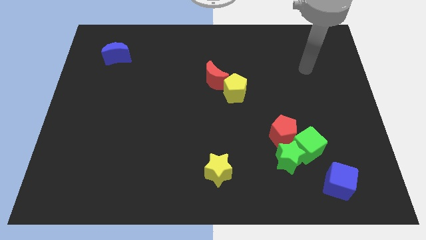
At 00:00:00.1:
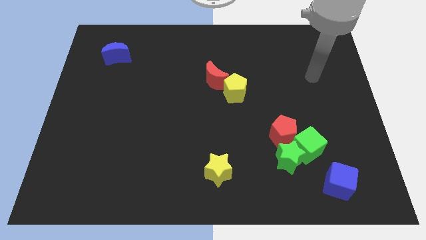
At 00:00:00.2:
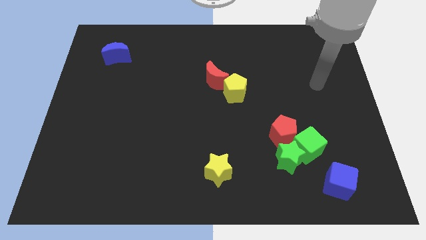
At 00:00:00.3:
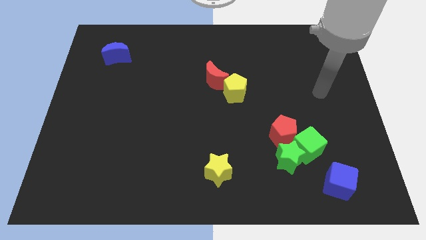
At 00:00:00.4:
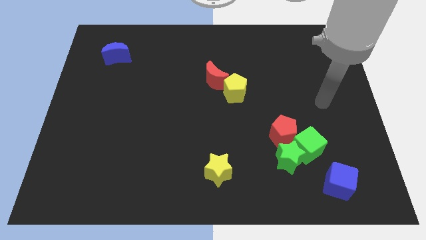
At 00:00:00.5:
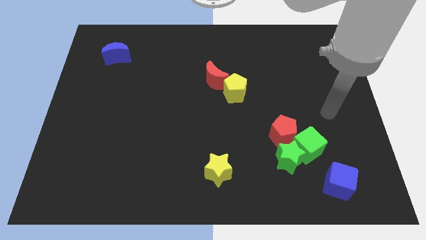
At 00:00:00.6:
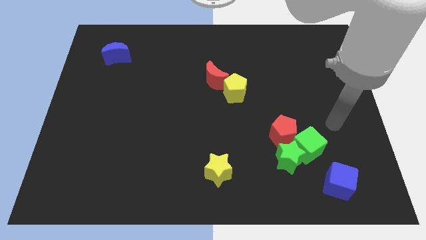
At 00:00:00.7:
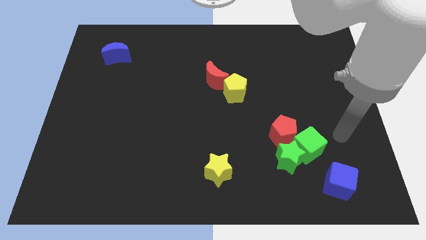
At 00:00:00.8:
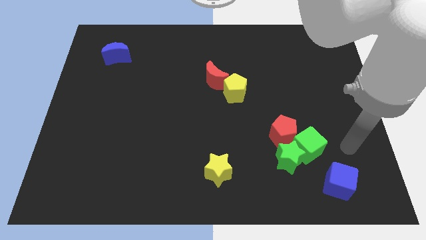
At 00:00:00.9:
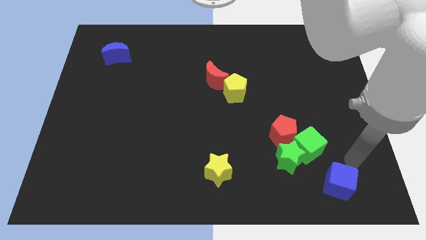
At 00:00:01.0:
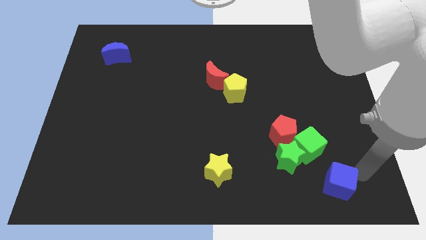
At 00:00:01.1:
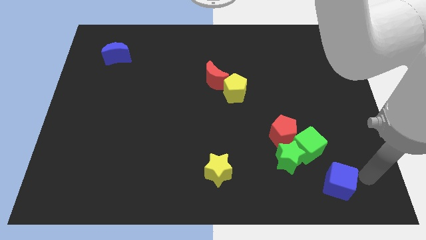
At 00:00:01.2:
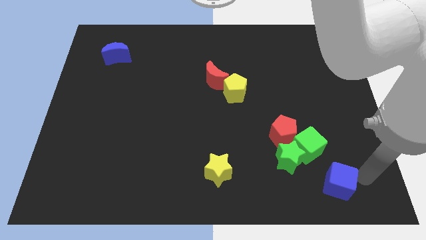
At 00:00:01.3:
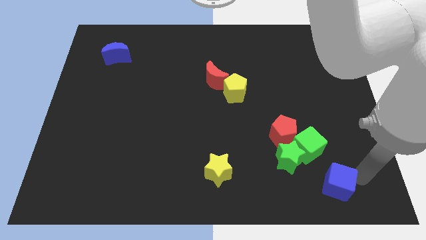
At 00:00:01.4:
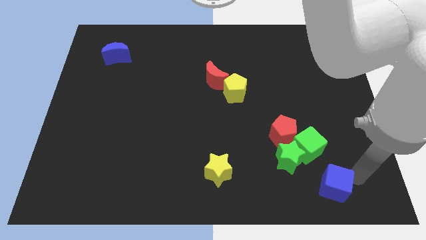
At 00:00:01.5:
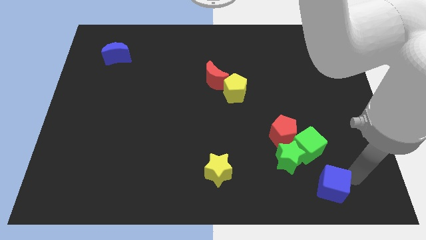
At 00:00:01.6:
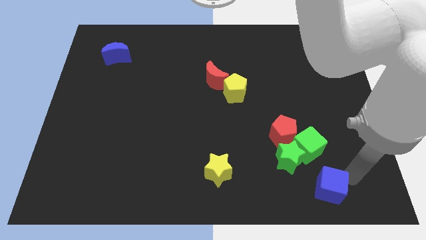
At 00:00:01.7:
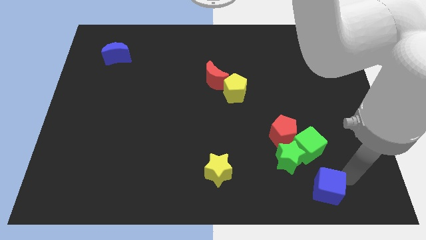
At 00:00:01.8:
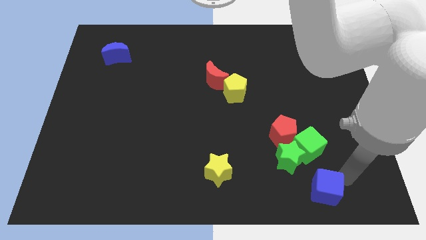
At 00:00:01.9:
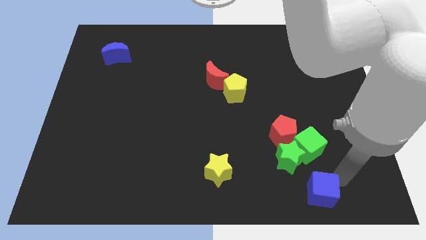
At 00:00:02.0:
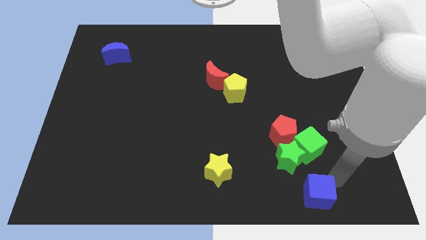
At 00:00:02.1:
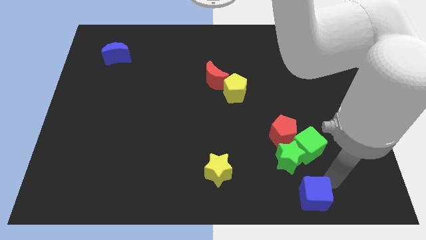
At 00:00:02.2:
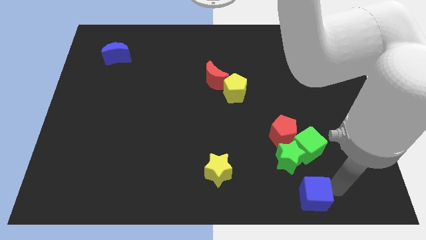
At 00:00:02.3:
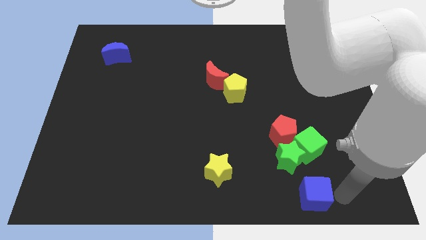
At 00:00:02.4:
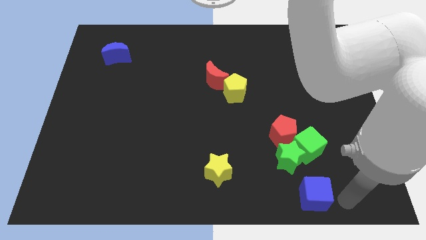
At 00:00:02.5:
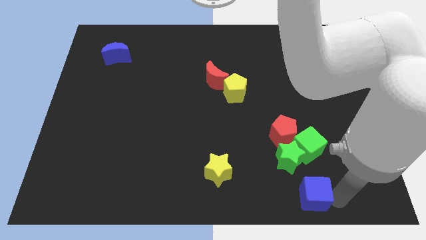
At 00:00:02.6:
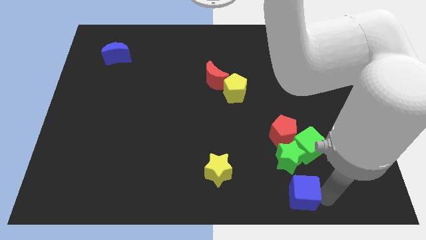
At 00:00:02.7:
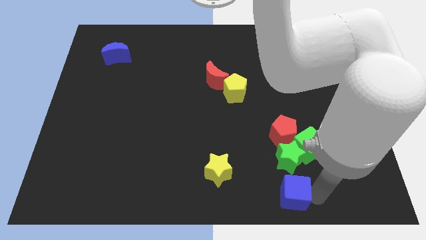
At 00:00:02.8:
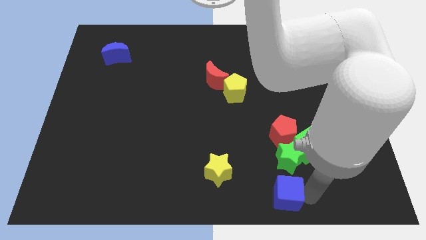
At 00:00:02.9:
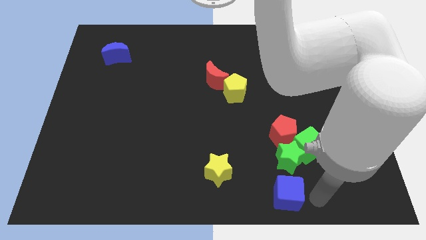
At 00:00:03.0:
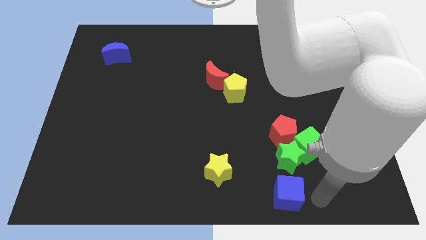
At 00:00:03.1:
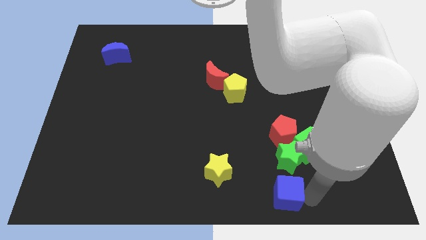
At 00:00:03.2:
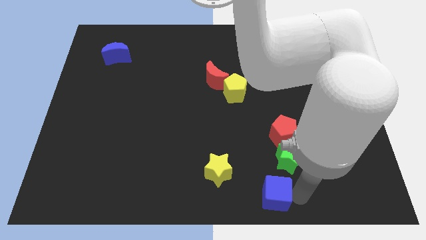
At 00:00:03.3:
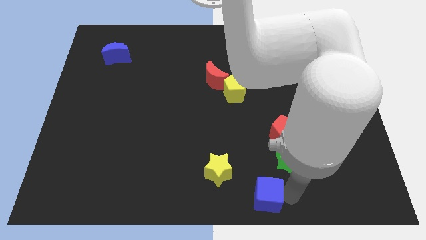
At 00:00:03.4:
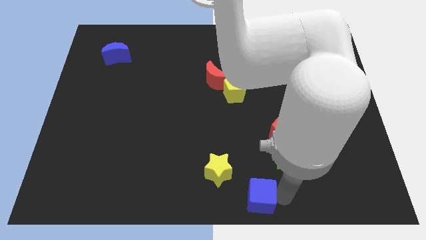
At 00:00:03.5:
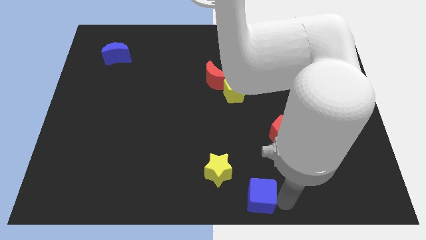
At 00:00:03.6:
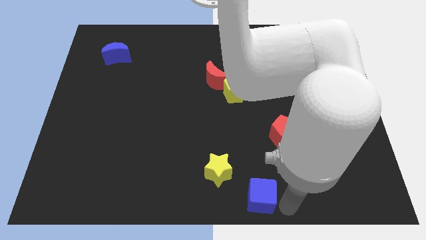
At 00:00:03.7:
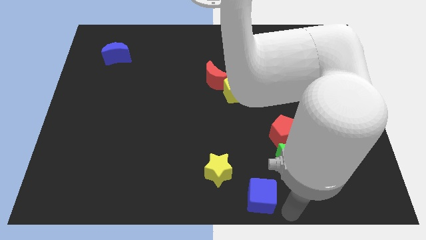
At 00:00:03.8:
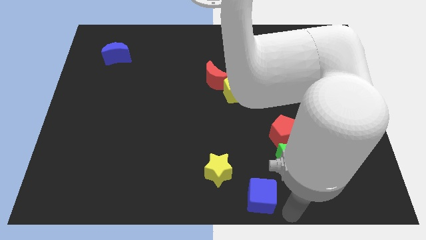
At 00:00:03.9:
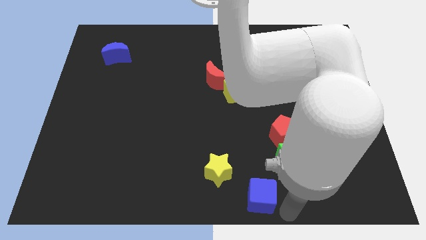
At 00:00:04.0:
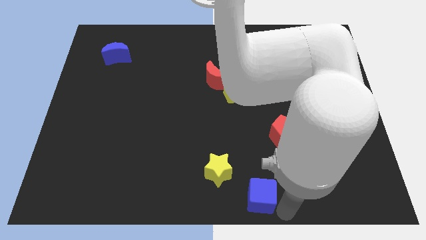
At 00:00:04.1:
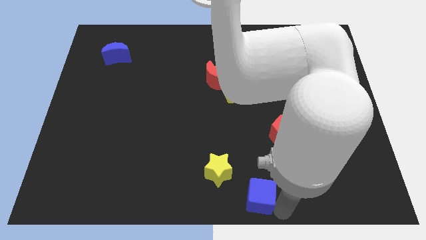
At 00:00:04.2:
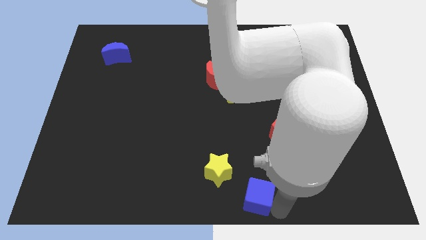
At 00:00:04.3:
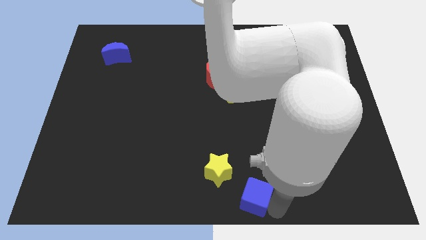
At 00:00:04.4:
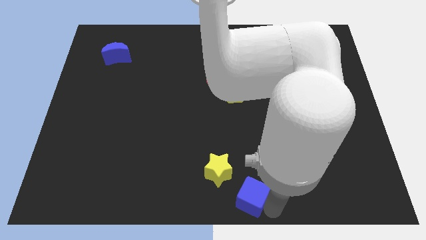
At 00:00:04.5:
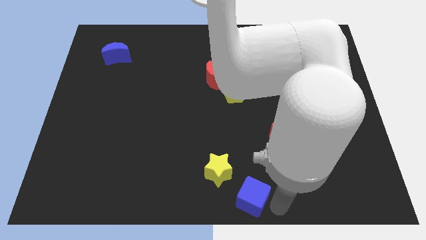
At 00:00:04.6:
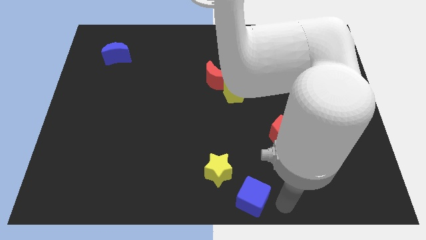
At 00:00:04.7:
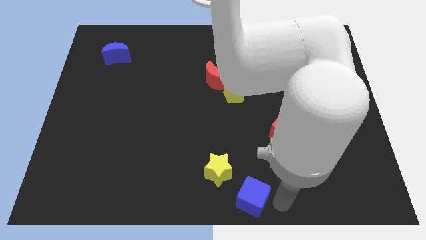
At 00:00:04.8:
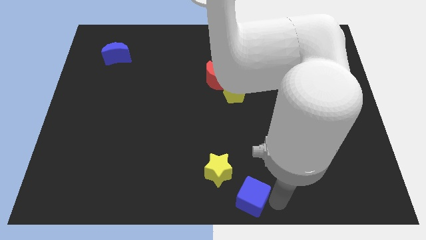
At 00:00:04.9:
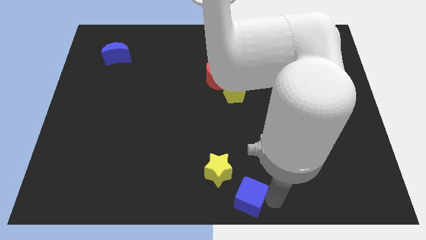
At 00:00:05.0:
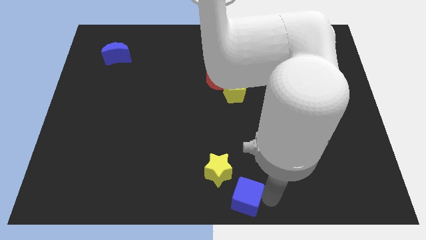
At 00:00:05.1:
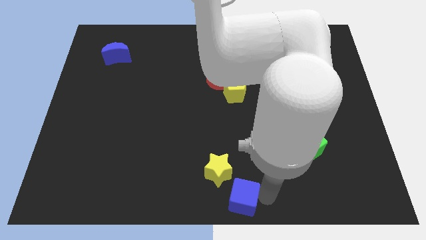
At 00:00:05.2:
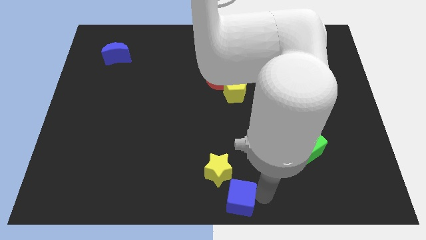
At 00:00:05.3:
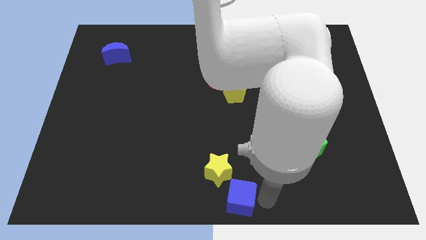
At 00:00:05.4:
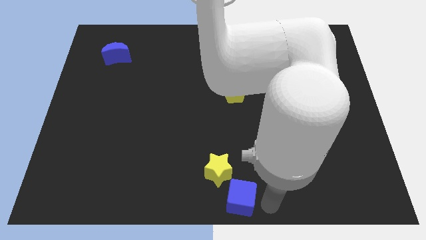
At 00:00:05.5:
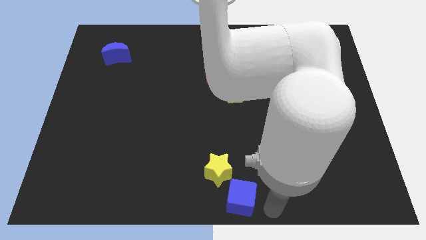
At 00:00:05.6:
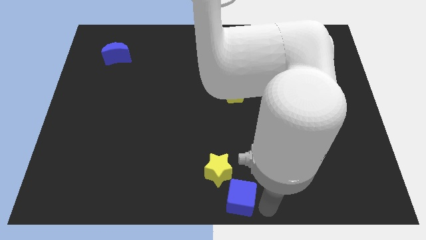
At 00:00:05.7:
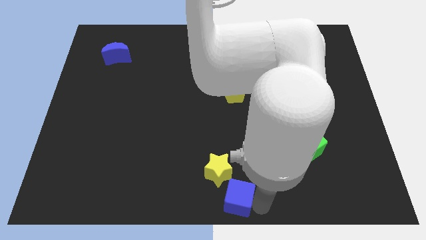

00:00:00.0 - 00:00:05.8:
move the blue cube left

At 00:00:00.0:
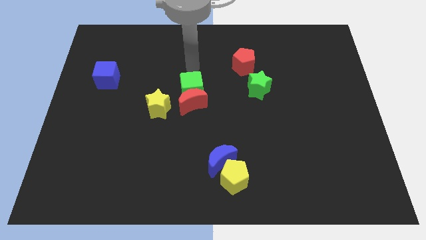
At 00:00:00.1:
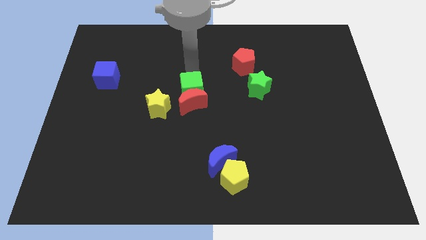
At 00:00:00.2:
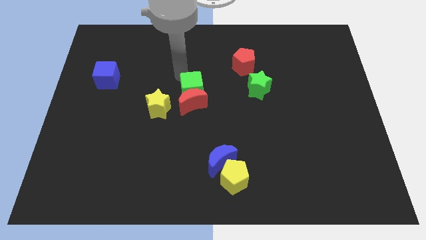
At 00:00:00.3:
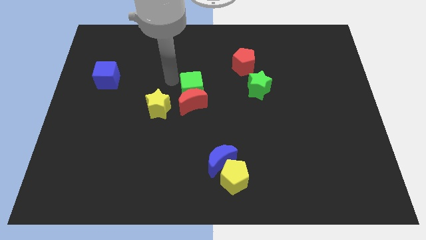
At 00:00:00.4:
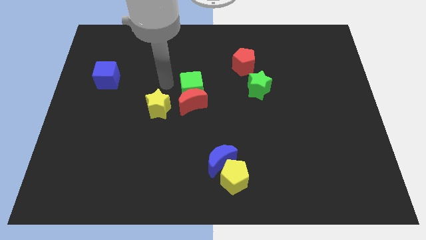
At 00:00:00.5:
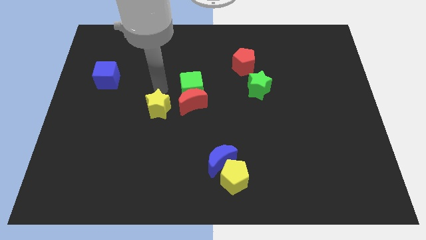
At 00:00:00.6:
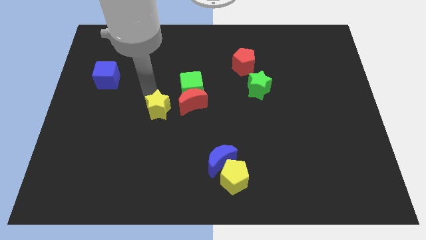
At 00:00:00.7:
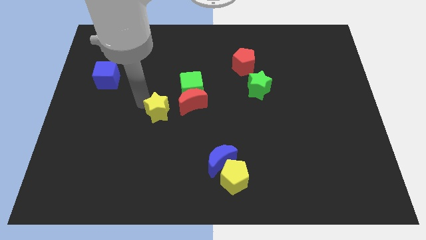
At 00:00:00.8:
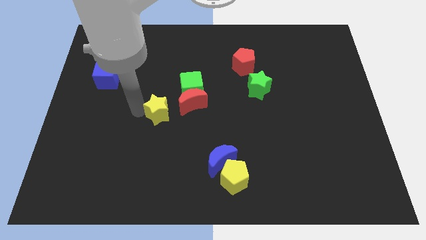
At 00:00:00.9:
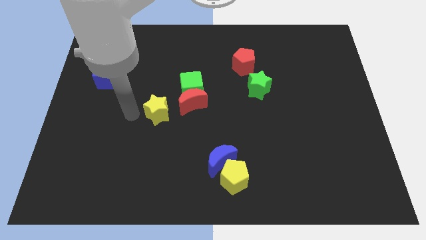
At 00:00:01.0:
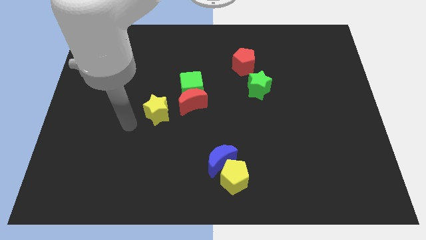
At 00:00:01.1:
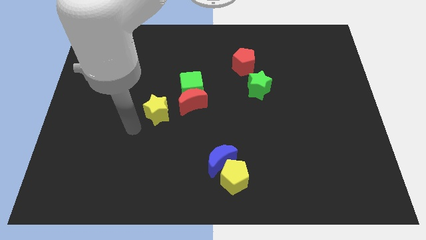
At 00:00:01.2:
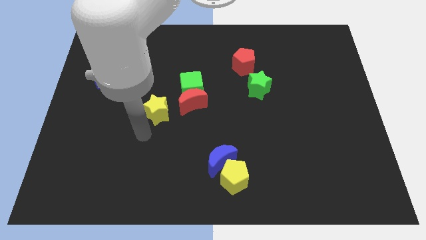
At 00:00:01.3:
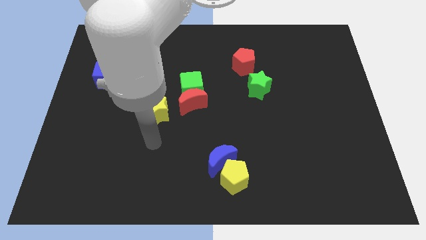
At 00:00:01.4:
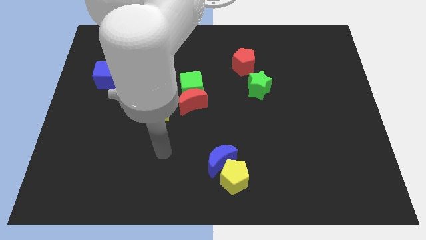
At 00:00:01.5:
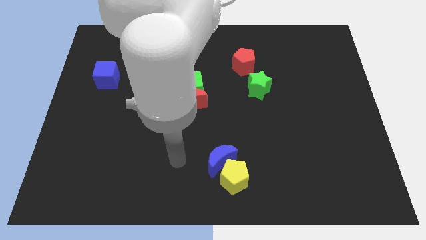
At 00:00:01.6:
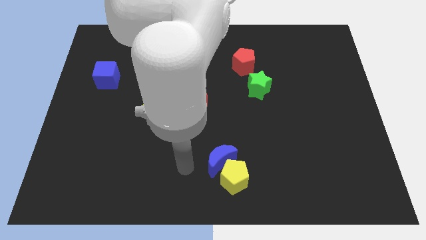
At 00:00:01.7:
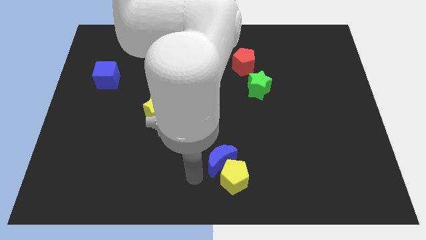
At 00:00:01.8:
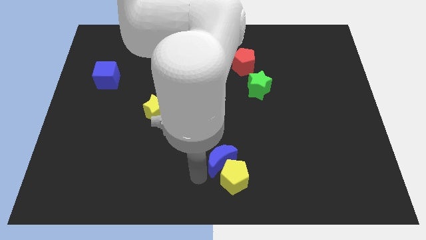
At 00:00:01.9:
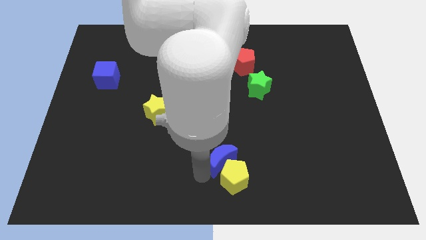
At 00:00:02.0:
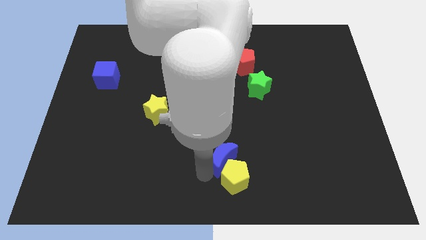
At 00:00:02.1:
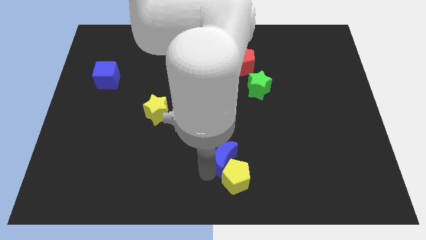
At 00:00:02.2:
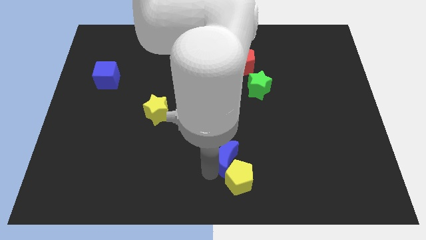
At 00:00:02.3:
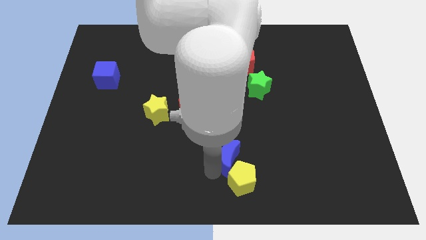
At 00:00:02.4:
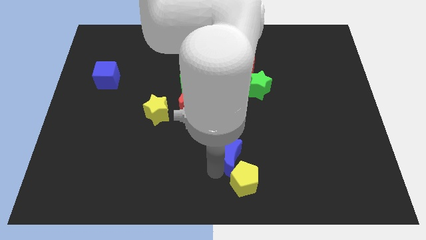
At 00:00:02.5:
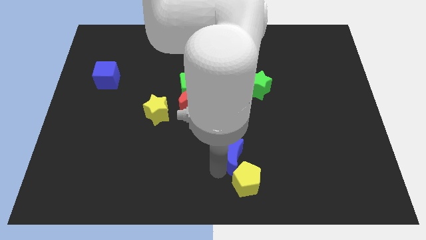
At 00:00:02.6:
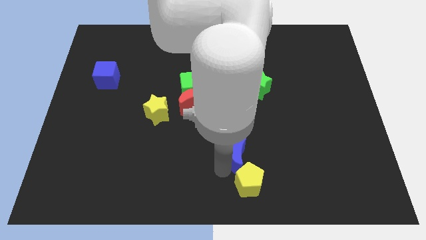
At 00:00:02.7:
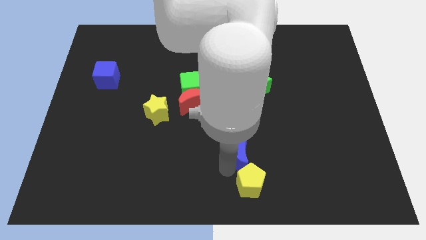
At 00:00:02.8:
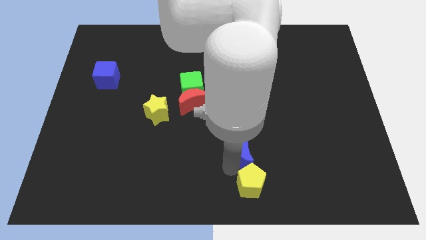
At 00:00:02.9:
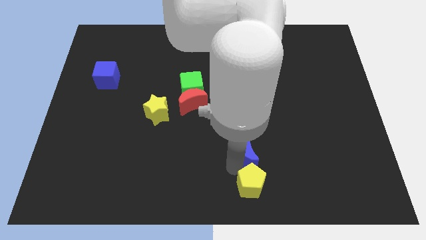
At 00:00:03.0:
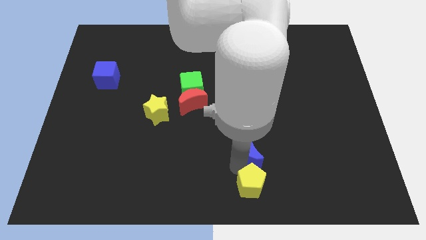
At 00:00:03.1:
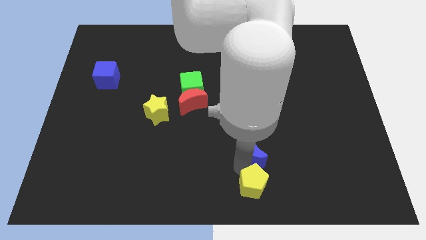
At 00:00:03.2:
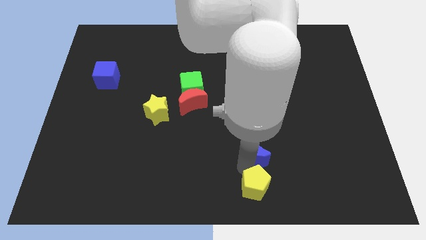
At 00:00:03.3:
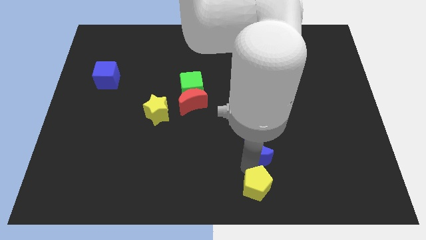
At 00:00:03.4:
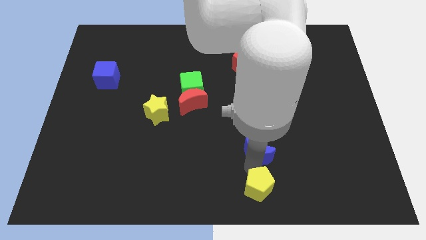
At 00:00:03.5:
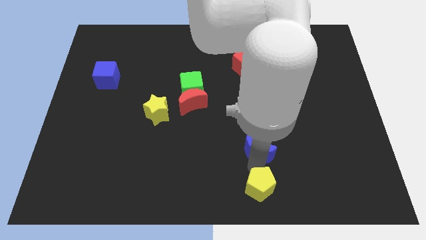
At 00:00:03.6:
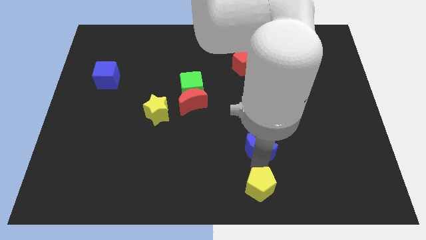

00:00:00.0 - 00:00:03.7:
slide the blue moon up and then to the right somewhat
